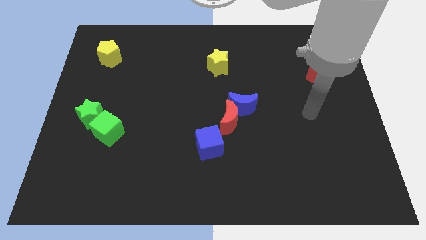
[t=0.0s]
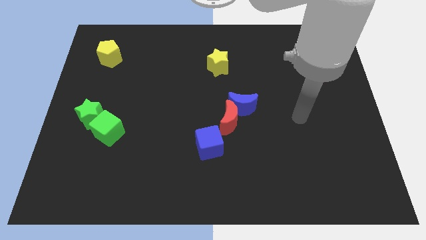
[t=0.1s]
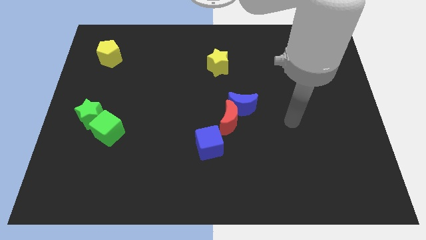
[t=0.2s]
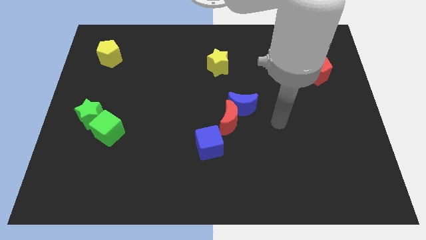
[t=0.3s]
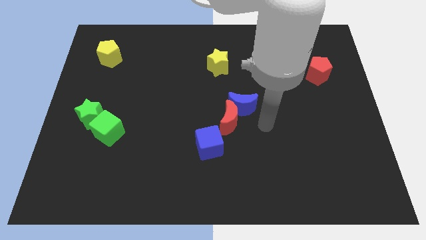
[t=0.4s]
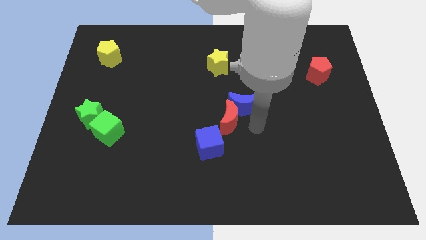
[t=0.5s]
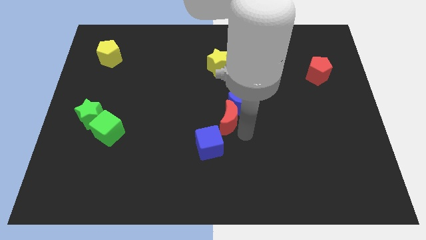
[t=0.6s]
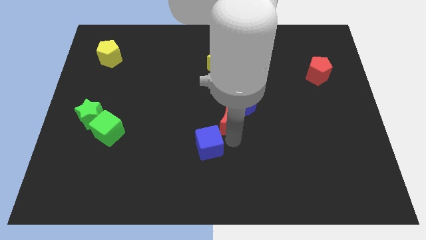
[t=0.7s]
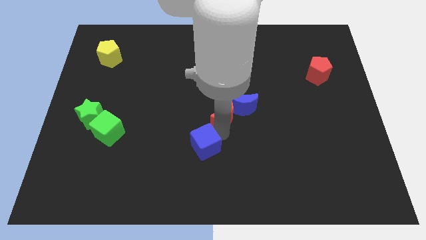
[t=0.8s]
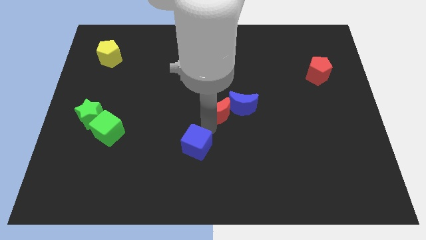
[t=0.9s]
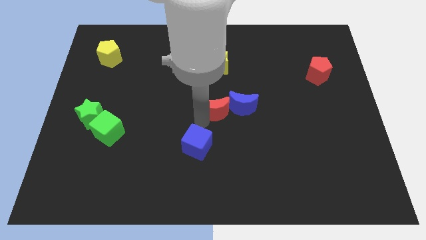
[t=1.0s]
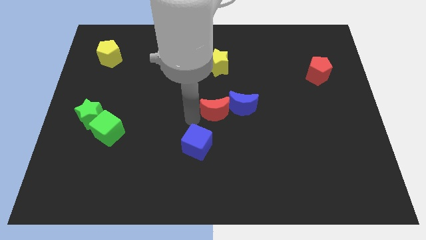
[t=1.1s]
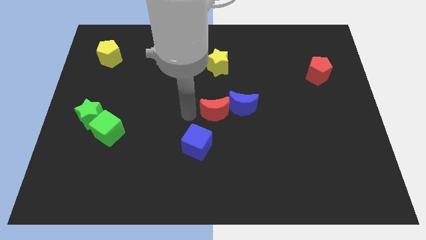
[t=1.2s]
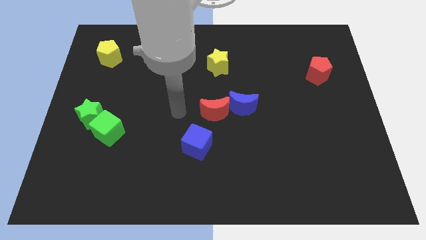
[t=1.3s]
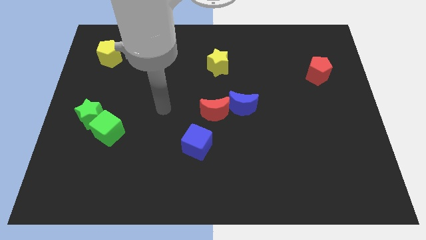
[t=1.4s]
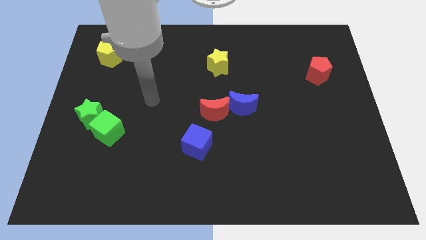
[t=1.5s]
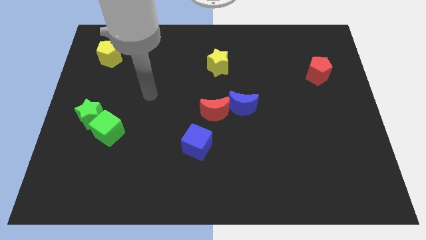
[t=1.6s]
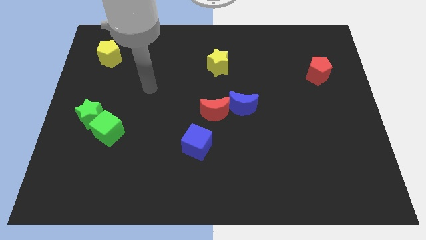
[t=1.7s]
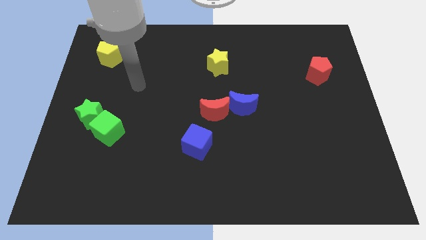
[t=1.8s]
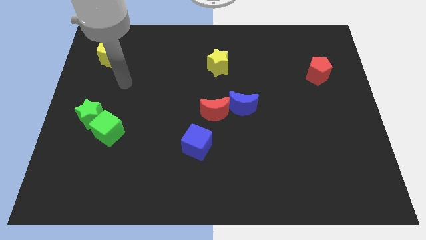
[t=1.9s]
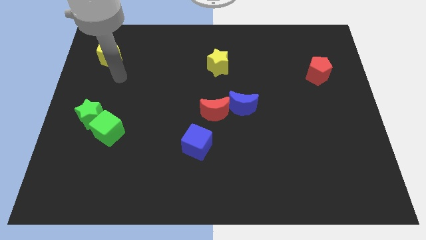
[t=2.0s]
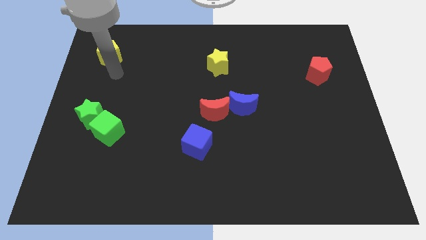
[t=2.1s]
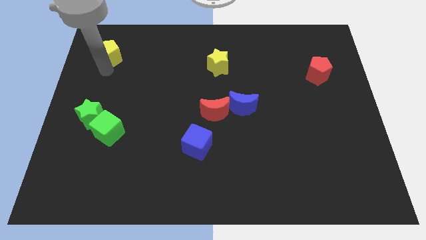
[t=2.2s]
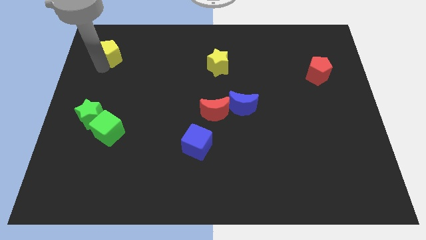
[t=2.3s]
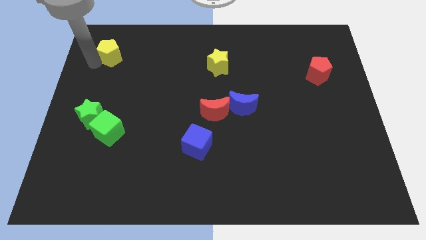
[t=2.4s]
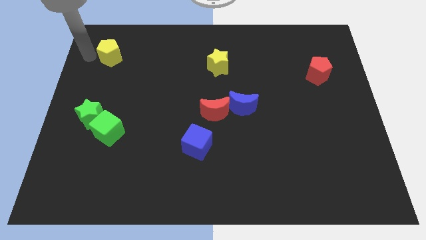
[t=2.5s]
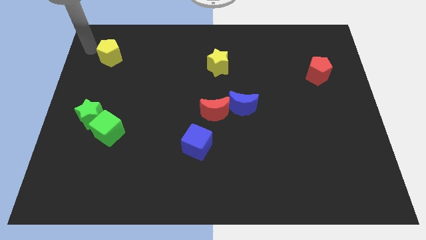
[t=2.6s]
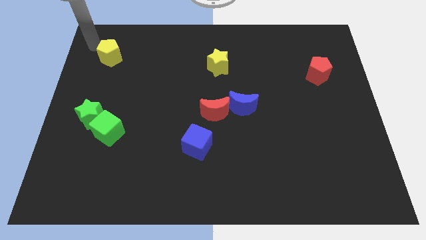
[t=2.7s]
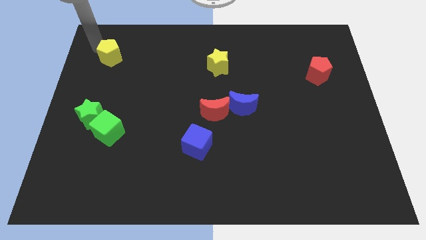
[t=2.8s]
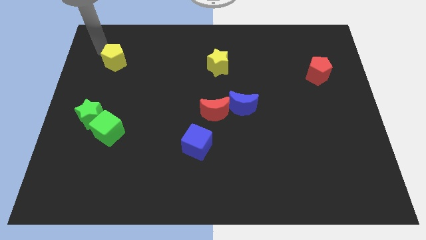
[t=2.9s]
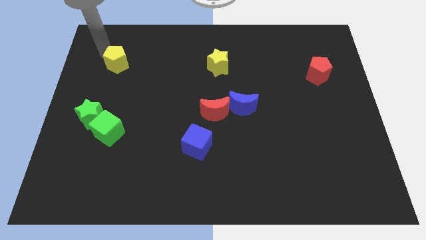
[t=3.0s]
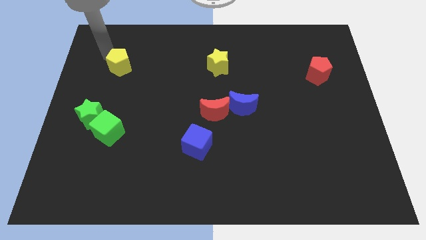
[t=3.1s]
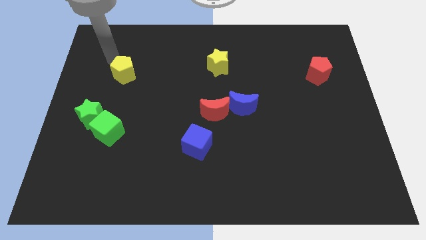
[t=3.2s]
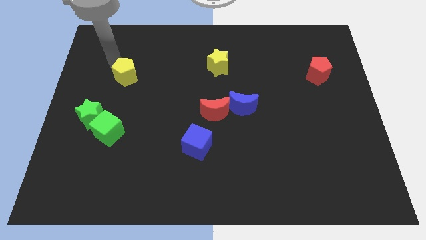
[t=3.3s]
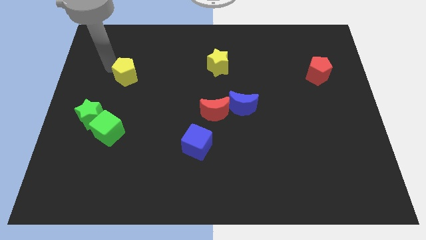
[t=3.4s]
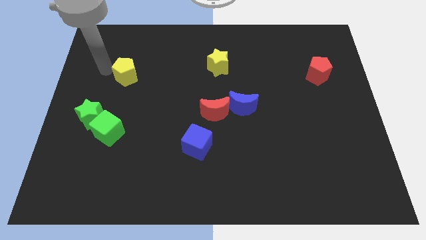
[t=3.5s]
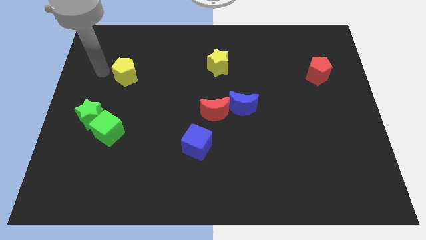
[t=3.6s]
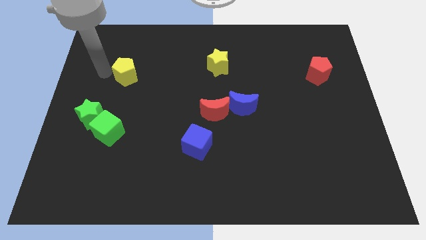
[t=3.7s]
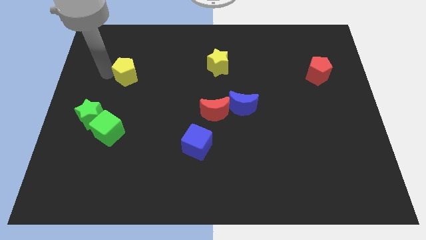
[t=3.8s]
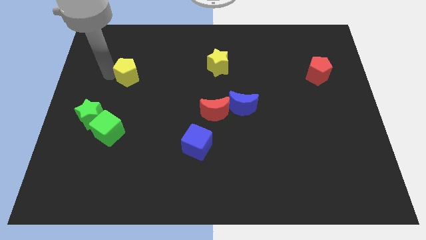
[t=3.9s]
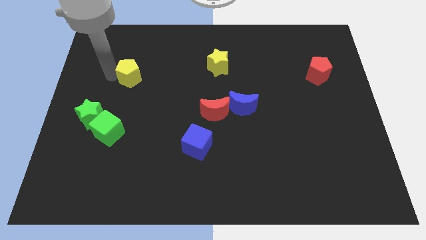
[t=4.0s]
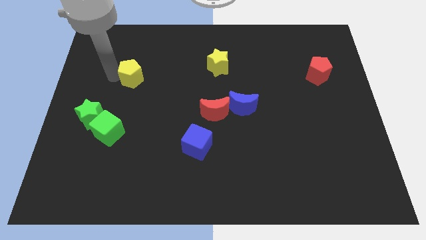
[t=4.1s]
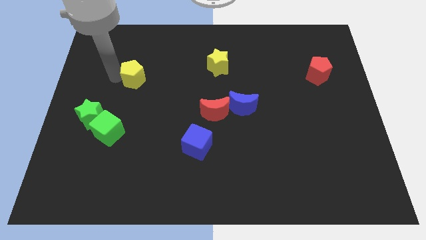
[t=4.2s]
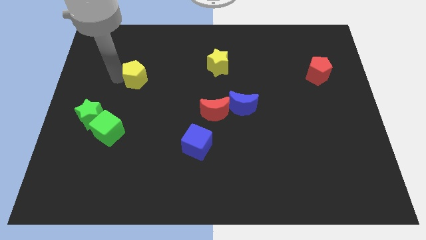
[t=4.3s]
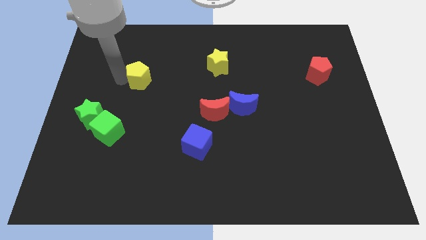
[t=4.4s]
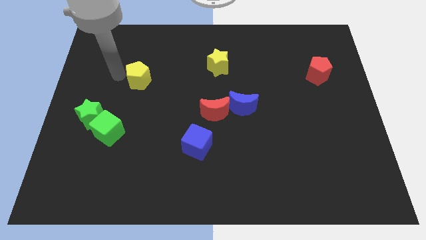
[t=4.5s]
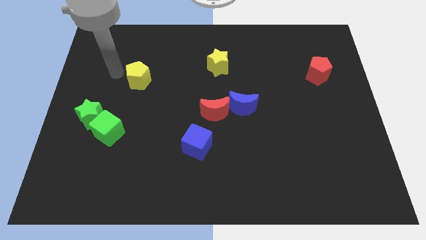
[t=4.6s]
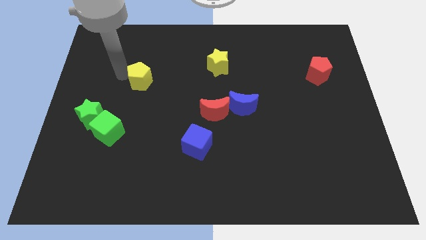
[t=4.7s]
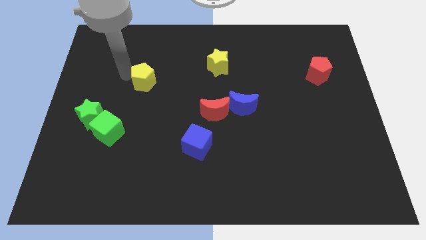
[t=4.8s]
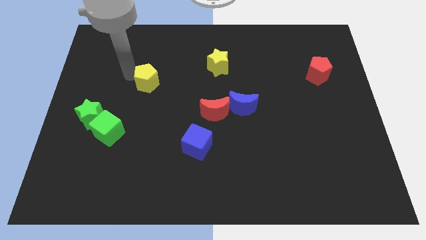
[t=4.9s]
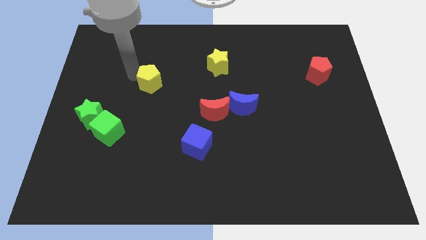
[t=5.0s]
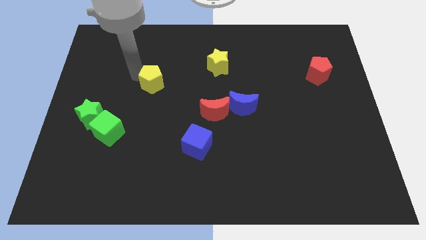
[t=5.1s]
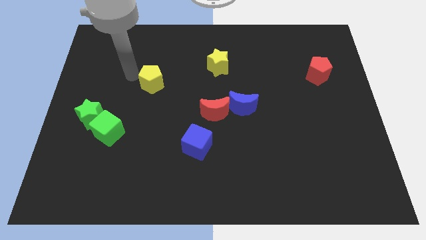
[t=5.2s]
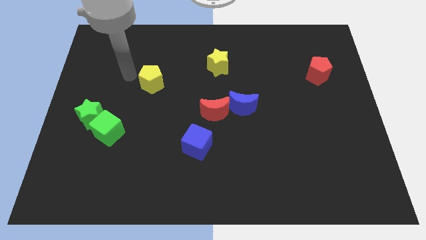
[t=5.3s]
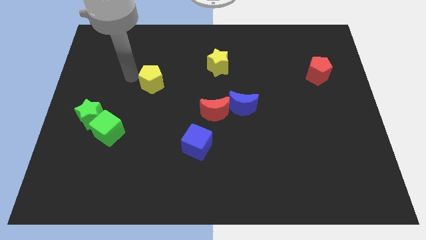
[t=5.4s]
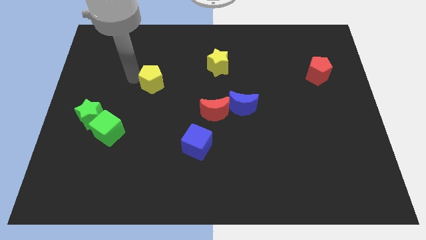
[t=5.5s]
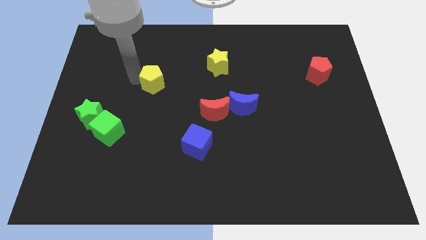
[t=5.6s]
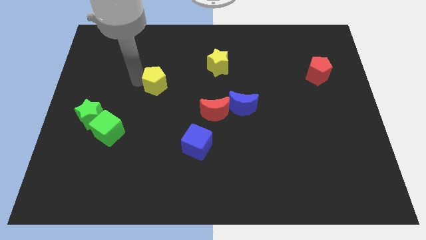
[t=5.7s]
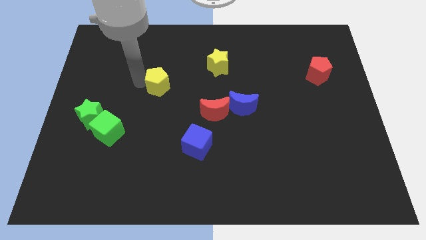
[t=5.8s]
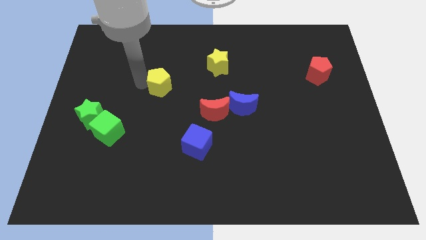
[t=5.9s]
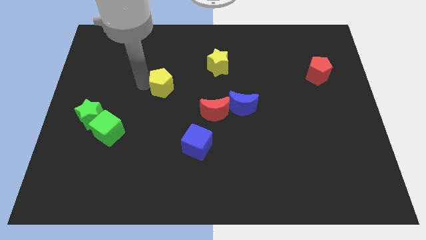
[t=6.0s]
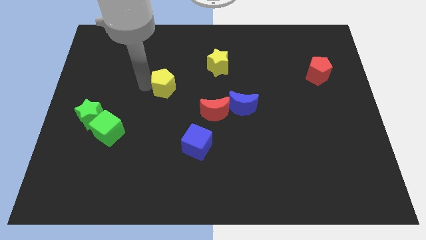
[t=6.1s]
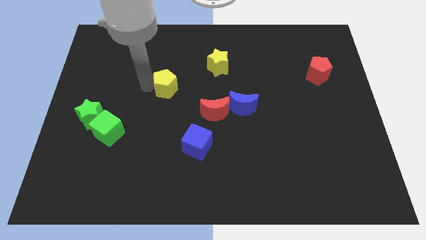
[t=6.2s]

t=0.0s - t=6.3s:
put the yellow pentagon to the middle of the board

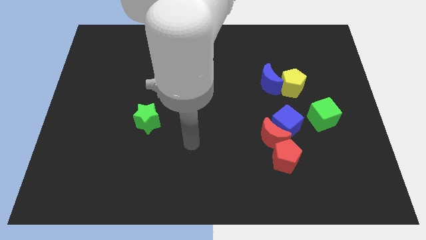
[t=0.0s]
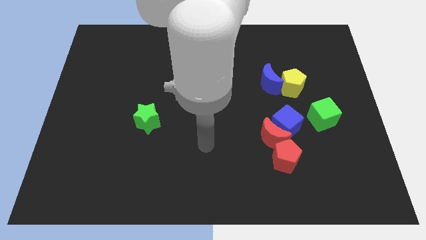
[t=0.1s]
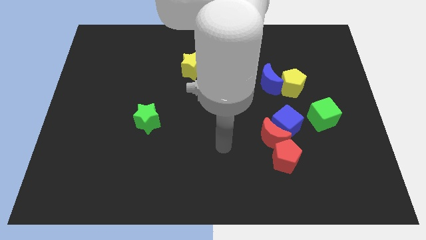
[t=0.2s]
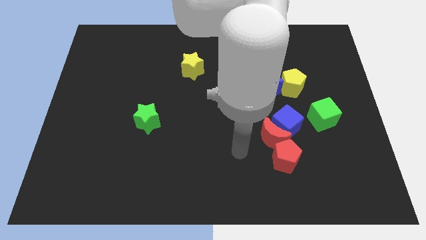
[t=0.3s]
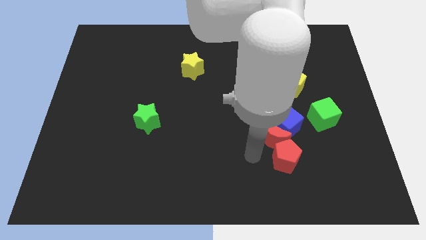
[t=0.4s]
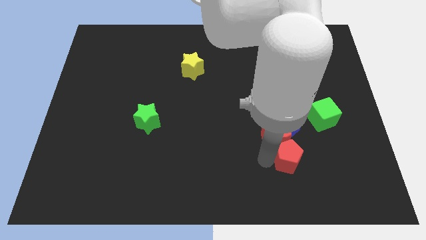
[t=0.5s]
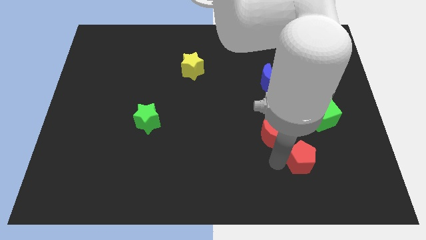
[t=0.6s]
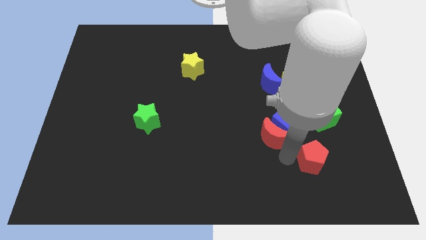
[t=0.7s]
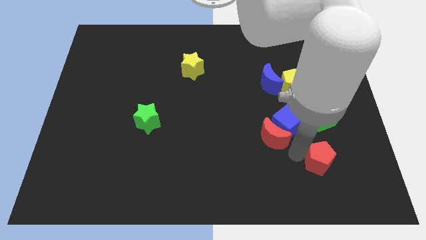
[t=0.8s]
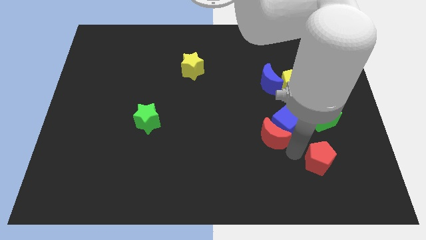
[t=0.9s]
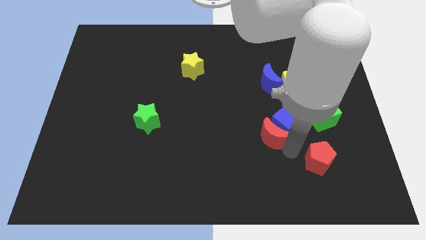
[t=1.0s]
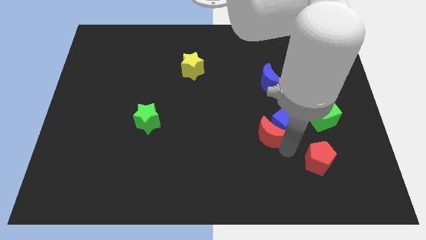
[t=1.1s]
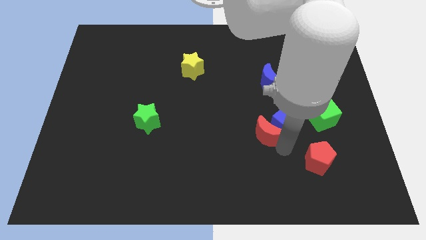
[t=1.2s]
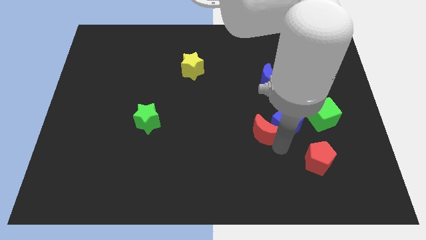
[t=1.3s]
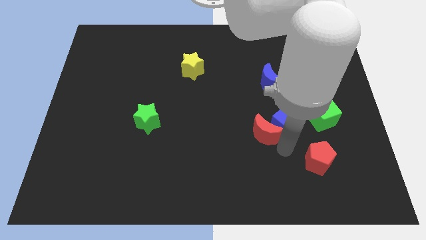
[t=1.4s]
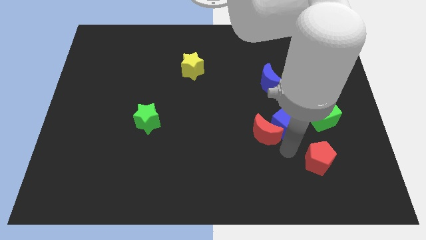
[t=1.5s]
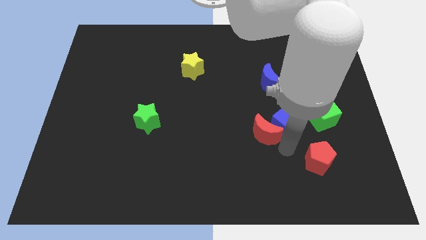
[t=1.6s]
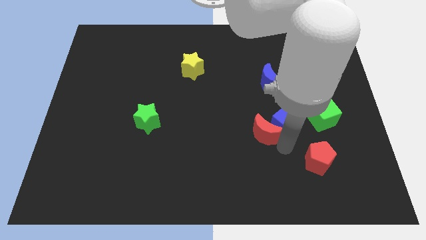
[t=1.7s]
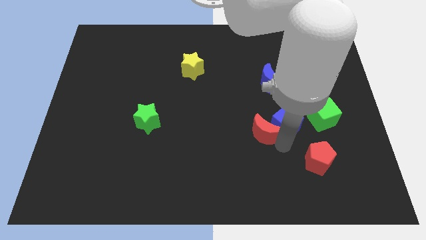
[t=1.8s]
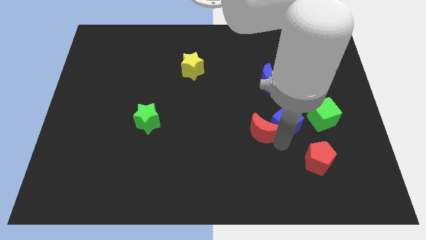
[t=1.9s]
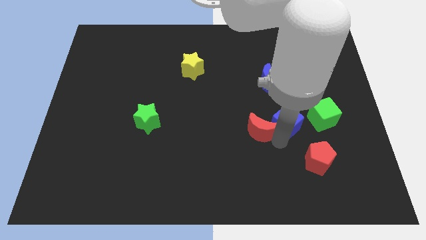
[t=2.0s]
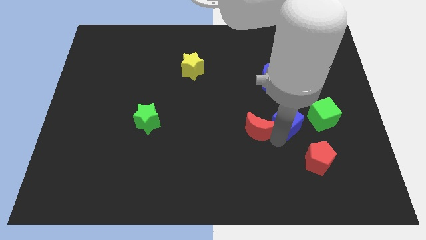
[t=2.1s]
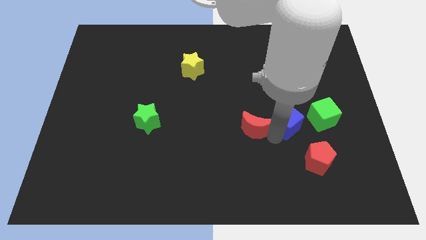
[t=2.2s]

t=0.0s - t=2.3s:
push the red moon to the middle of the board
